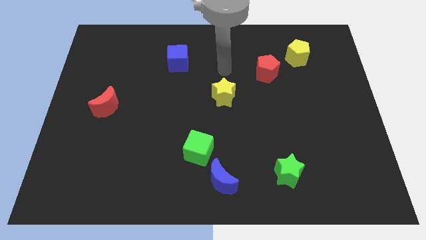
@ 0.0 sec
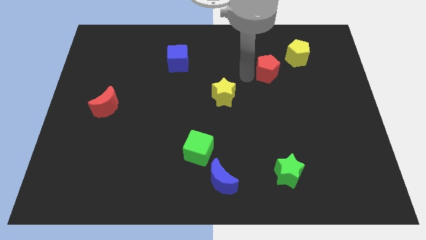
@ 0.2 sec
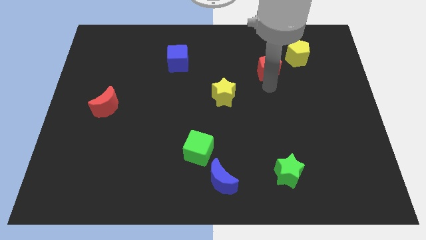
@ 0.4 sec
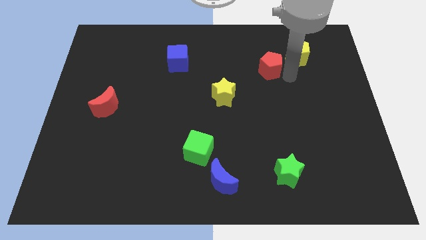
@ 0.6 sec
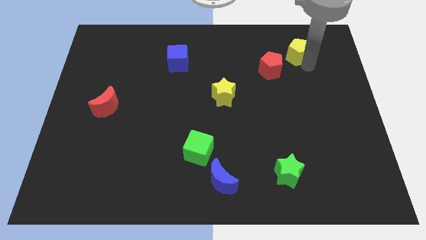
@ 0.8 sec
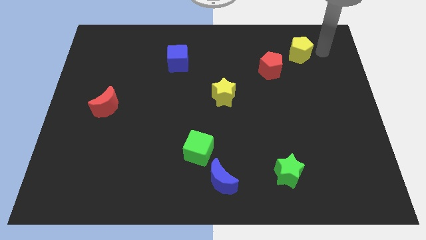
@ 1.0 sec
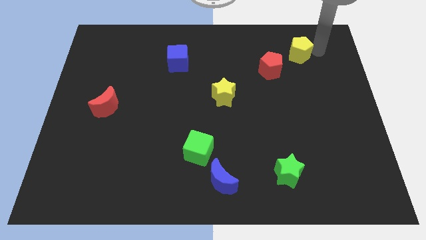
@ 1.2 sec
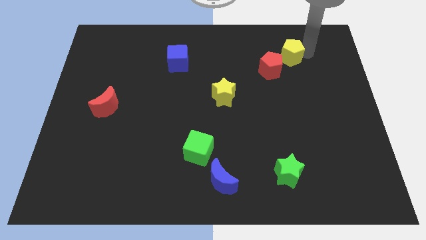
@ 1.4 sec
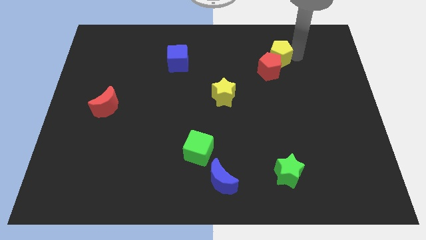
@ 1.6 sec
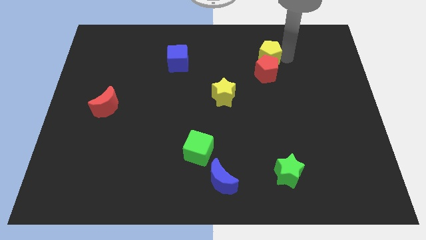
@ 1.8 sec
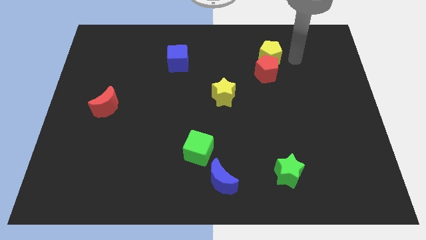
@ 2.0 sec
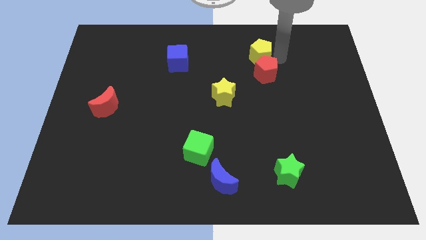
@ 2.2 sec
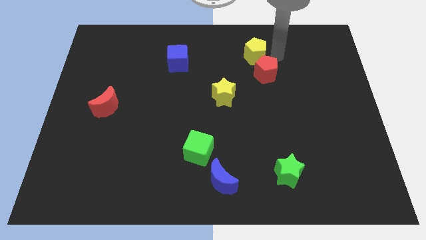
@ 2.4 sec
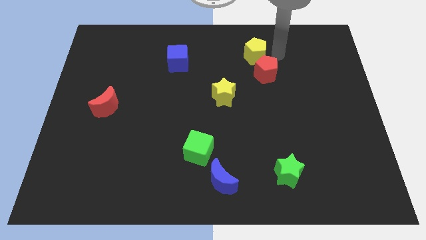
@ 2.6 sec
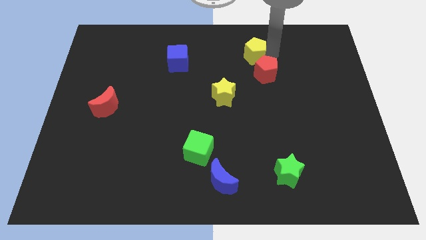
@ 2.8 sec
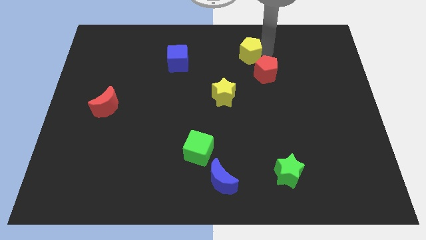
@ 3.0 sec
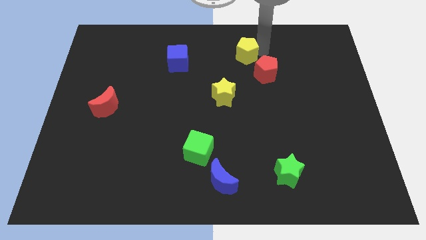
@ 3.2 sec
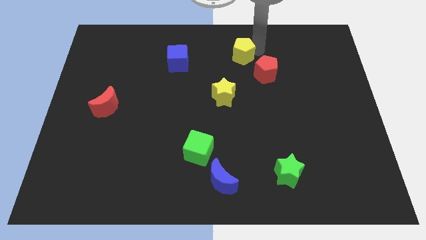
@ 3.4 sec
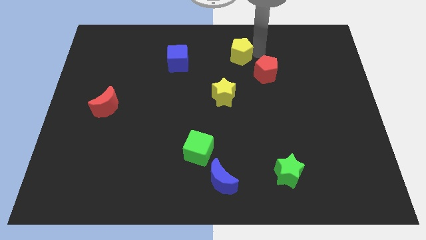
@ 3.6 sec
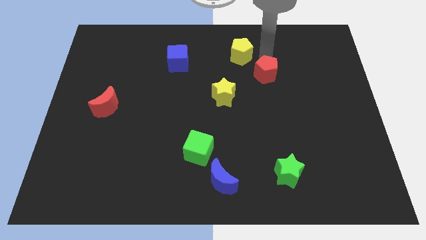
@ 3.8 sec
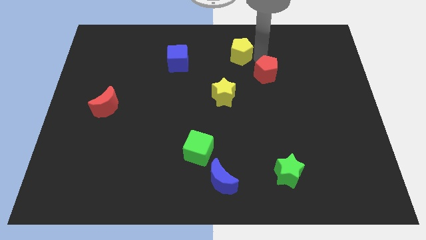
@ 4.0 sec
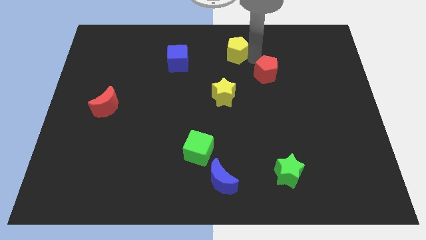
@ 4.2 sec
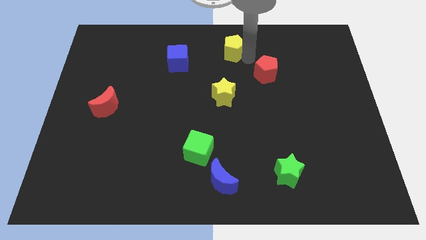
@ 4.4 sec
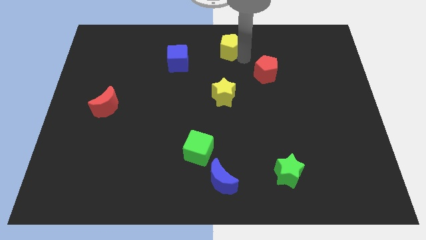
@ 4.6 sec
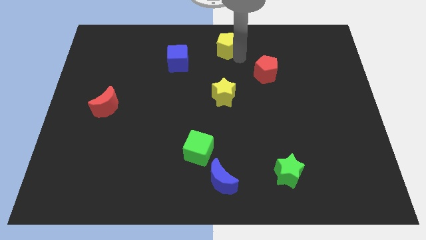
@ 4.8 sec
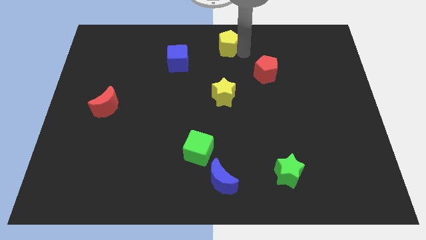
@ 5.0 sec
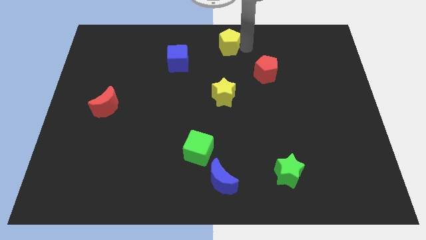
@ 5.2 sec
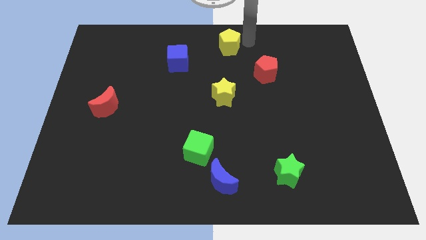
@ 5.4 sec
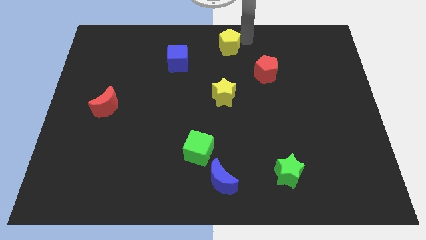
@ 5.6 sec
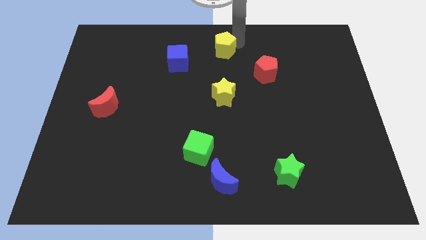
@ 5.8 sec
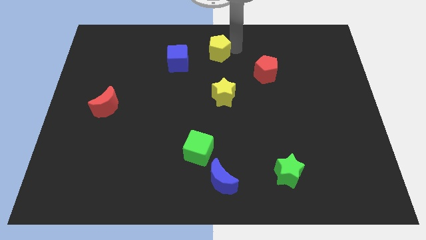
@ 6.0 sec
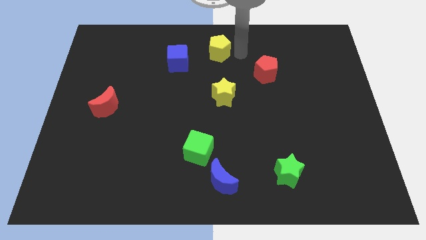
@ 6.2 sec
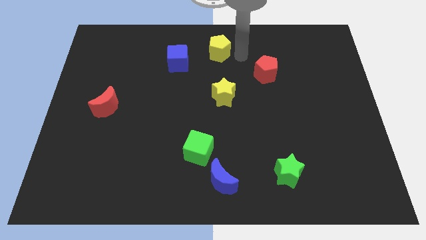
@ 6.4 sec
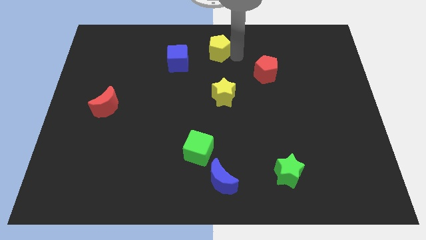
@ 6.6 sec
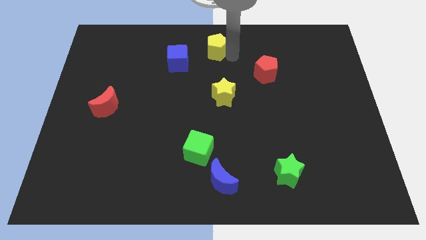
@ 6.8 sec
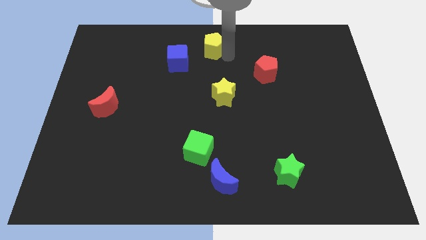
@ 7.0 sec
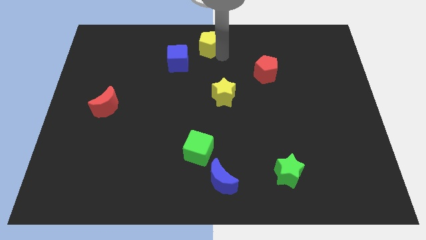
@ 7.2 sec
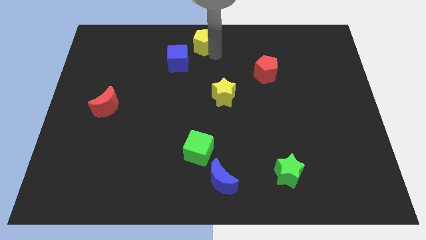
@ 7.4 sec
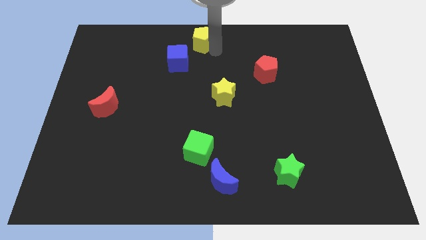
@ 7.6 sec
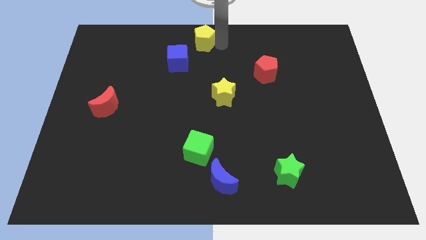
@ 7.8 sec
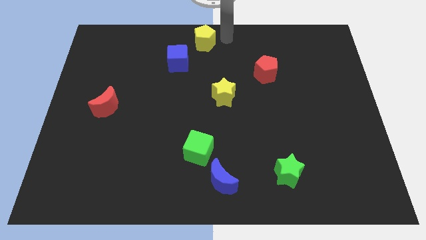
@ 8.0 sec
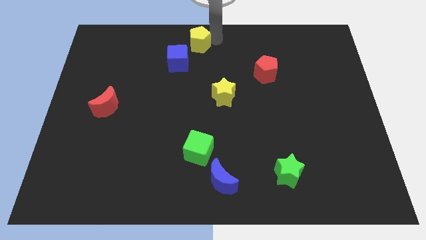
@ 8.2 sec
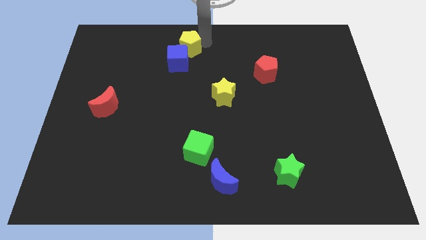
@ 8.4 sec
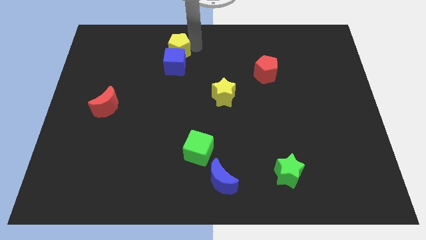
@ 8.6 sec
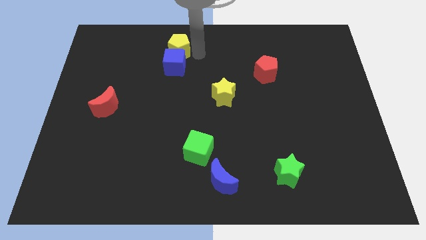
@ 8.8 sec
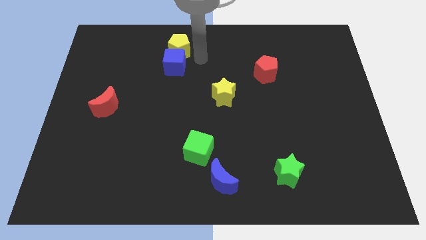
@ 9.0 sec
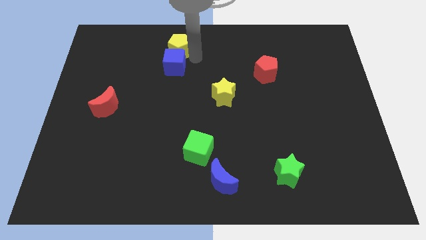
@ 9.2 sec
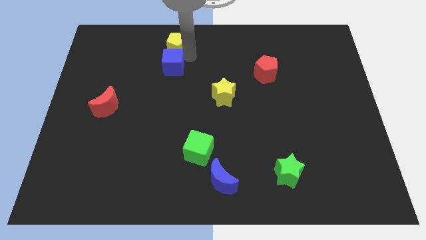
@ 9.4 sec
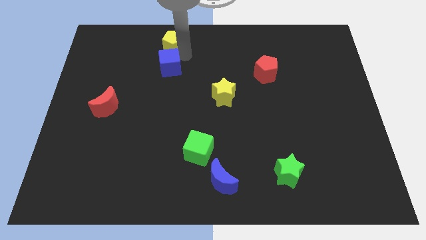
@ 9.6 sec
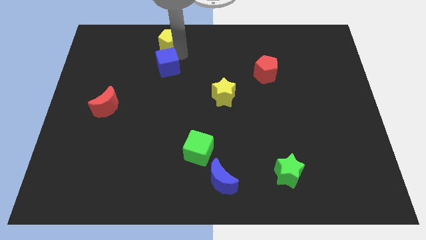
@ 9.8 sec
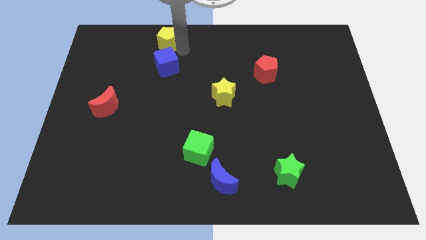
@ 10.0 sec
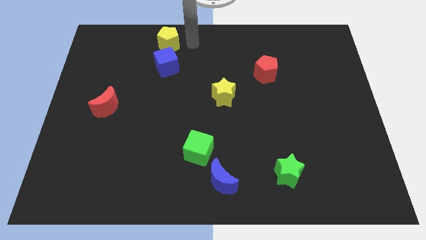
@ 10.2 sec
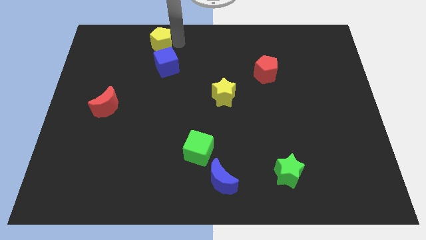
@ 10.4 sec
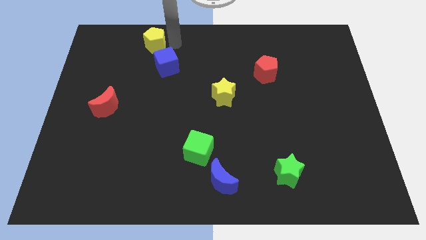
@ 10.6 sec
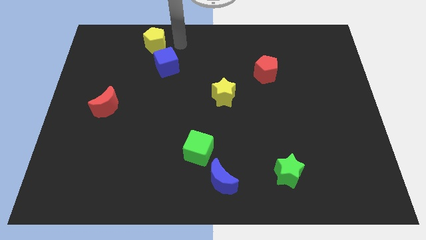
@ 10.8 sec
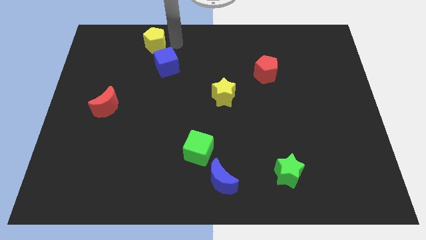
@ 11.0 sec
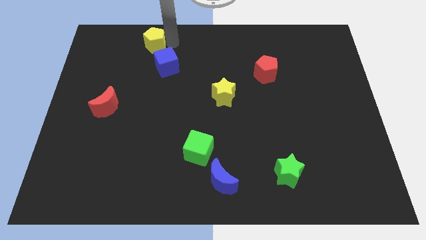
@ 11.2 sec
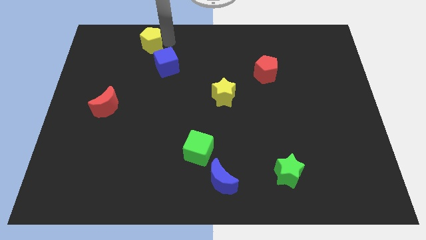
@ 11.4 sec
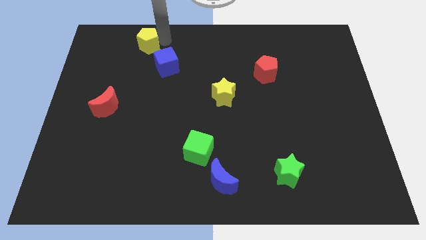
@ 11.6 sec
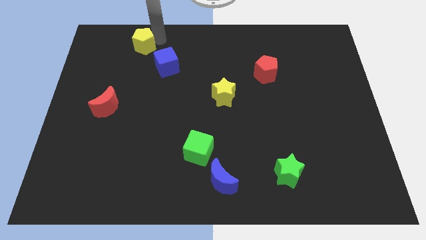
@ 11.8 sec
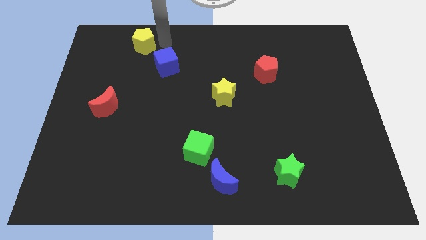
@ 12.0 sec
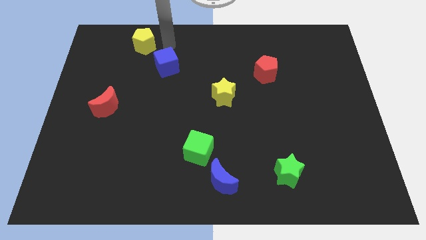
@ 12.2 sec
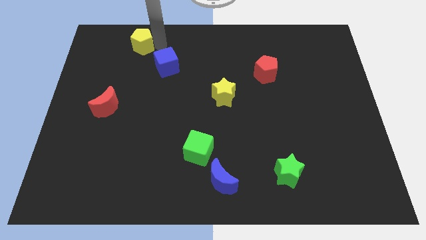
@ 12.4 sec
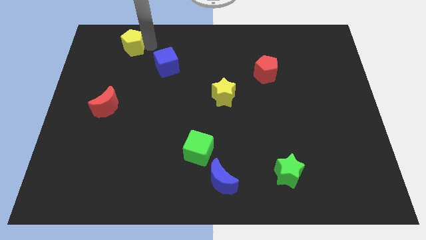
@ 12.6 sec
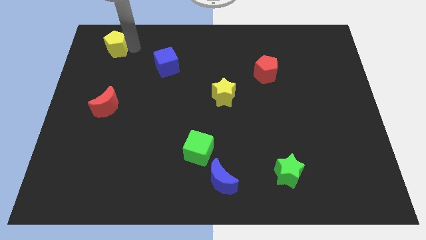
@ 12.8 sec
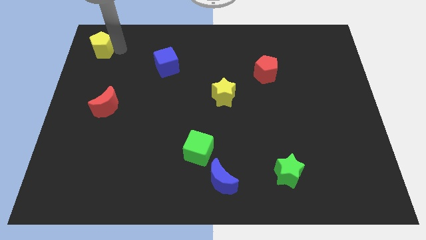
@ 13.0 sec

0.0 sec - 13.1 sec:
put the yellow pentagon to the top left

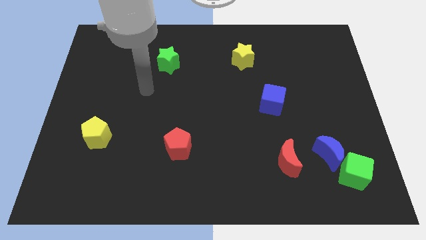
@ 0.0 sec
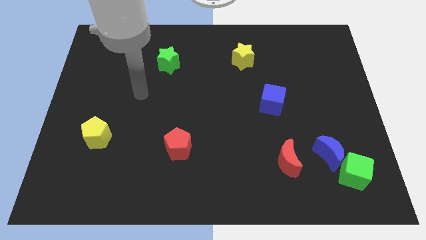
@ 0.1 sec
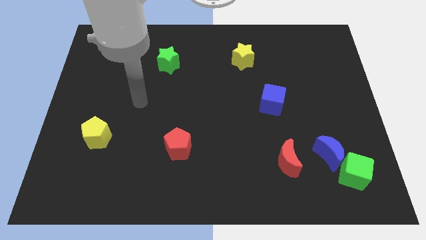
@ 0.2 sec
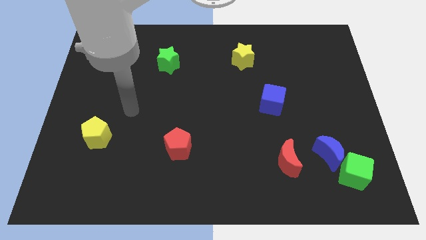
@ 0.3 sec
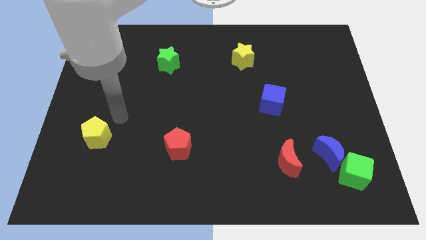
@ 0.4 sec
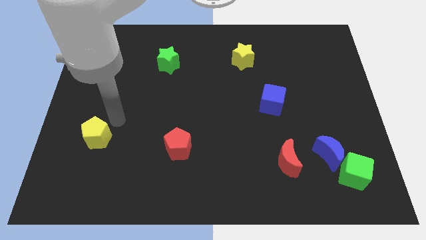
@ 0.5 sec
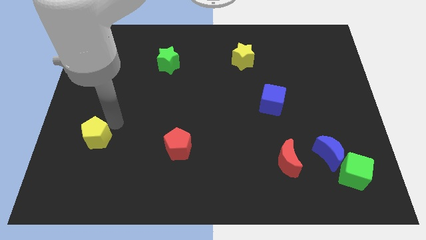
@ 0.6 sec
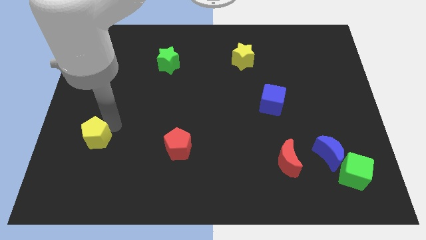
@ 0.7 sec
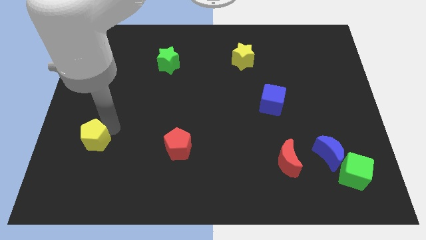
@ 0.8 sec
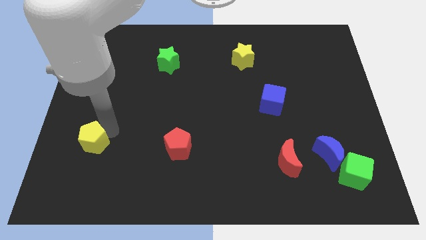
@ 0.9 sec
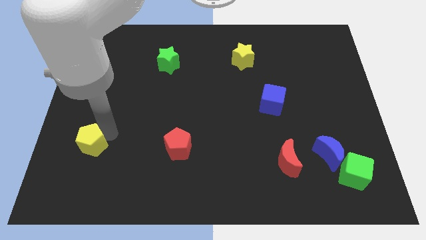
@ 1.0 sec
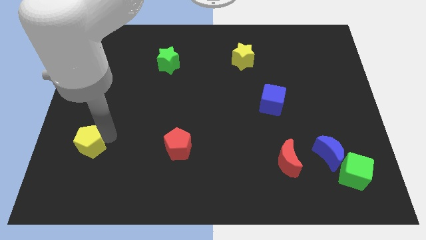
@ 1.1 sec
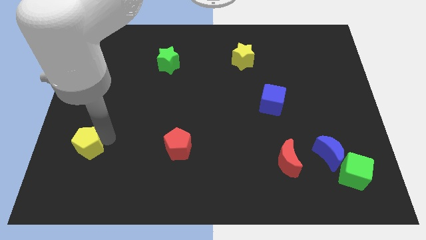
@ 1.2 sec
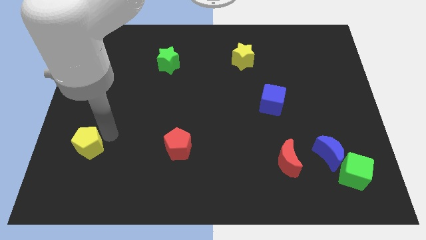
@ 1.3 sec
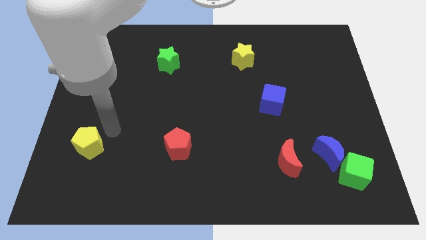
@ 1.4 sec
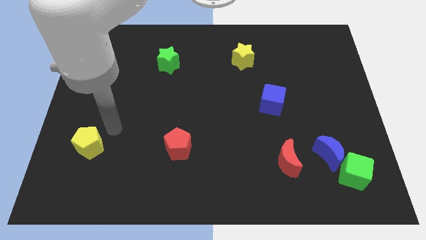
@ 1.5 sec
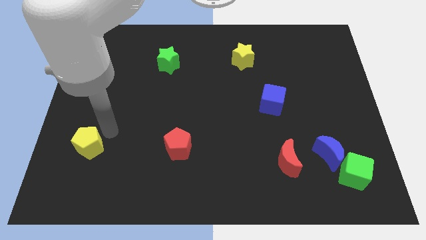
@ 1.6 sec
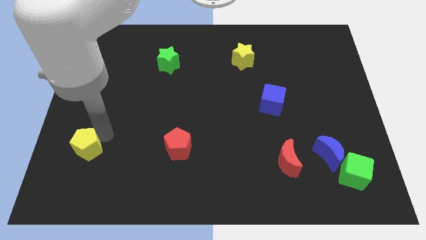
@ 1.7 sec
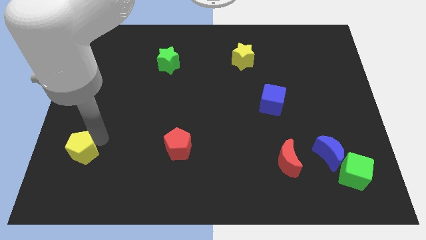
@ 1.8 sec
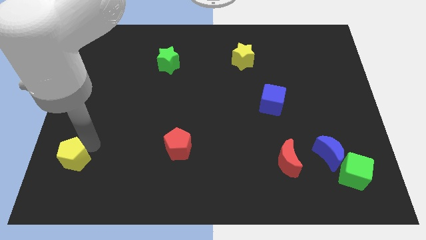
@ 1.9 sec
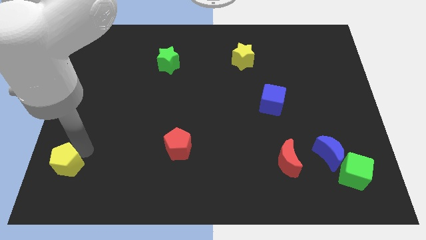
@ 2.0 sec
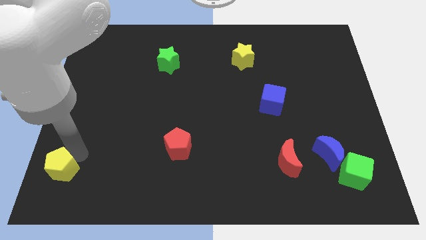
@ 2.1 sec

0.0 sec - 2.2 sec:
move the yellow pentagon to the bottom left corner
